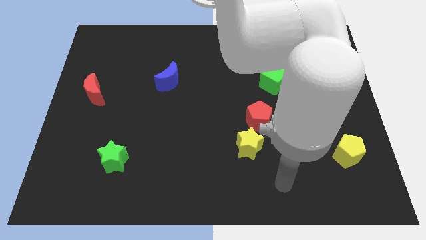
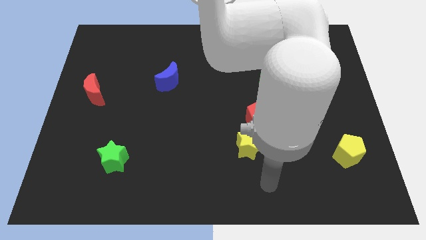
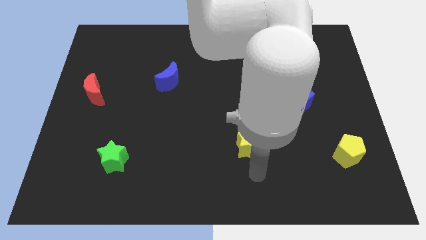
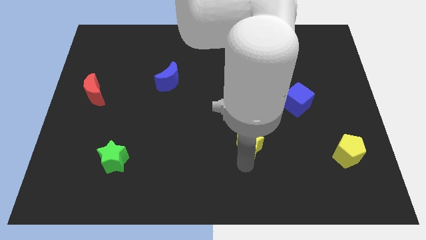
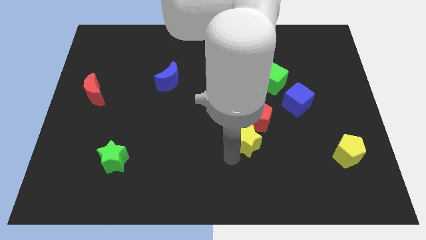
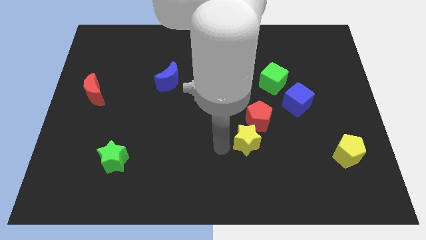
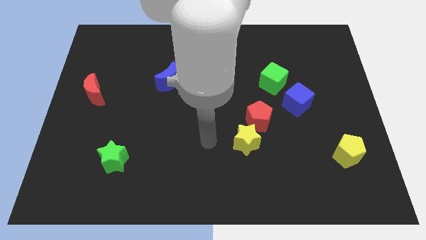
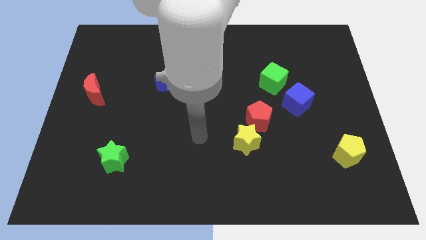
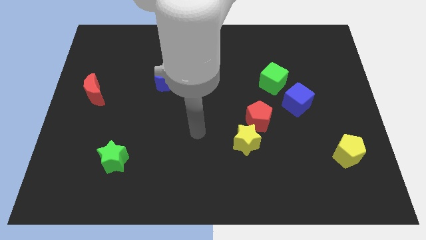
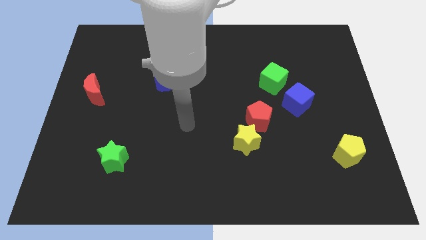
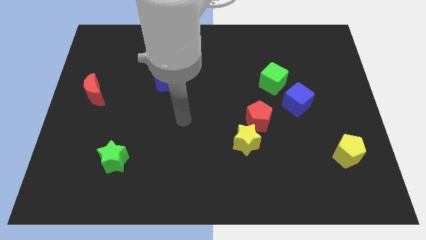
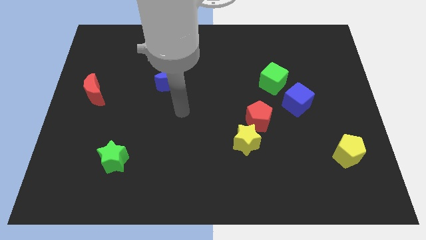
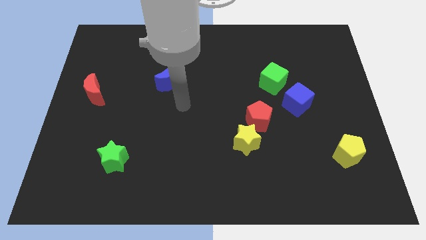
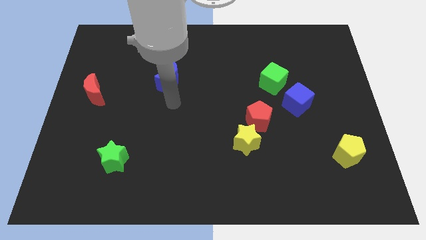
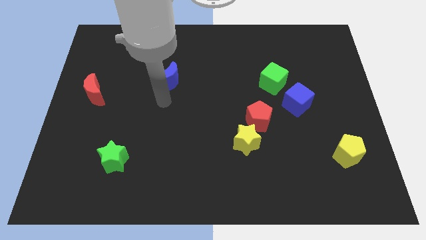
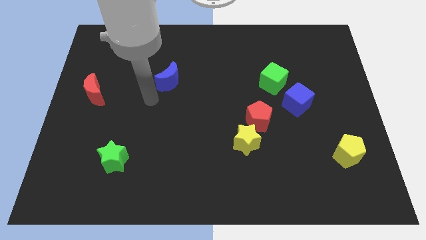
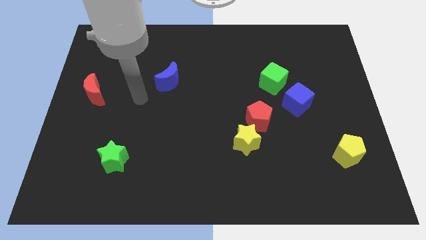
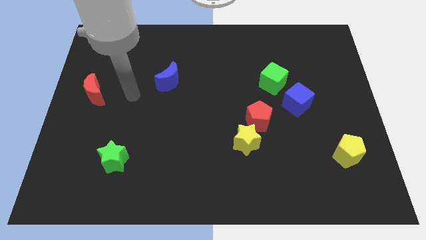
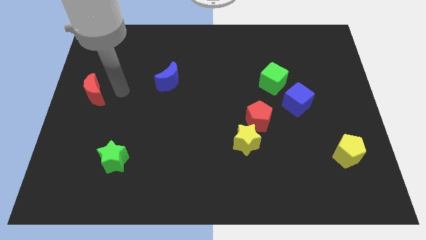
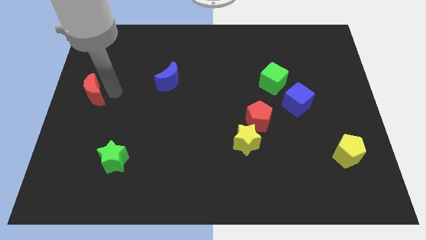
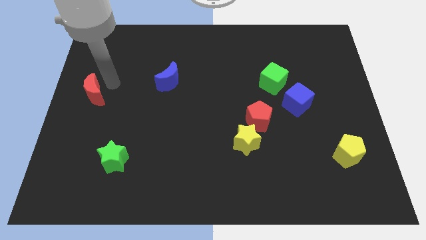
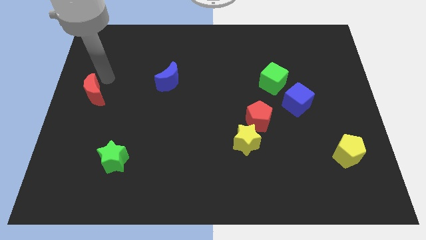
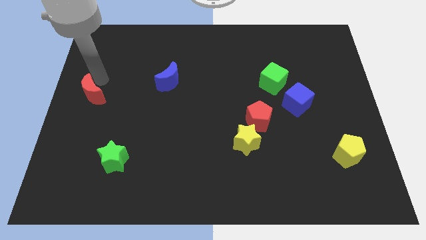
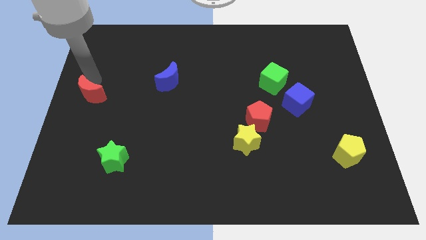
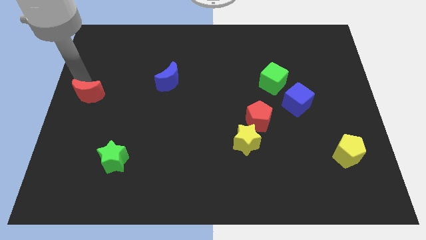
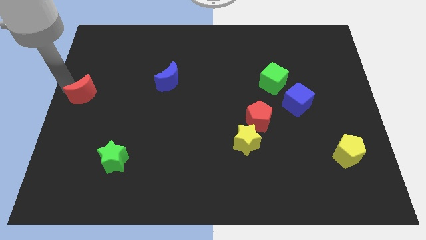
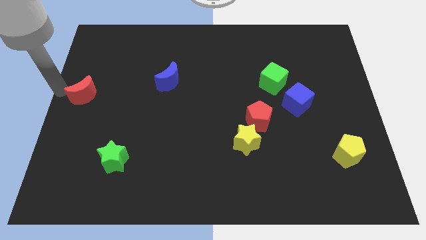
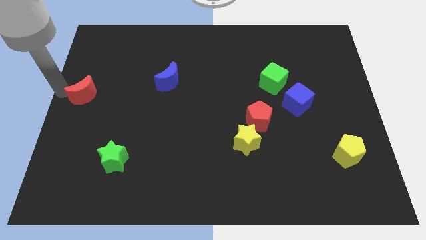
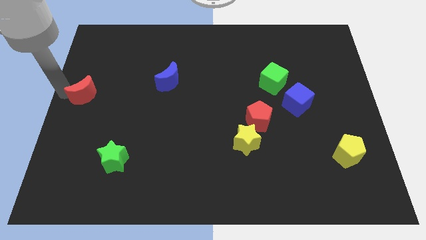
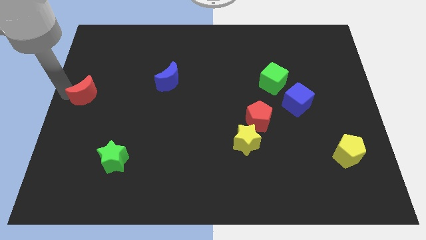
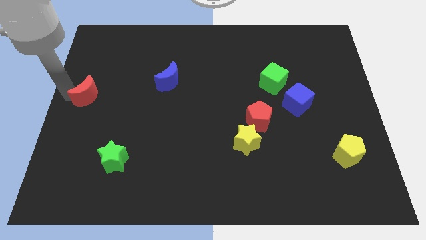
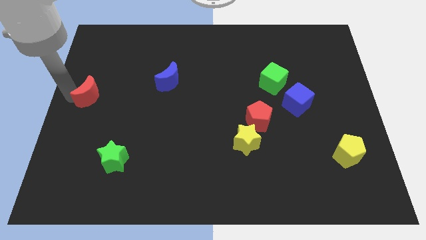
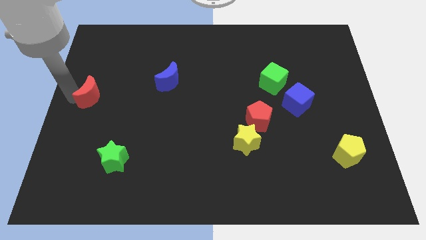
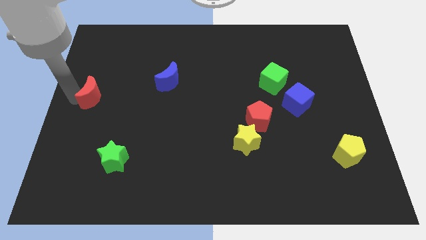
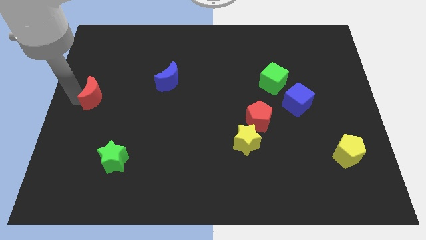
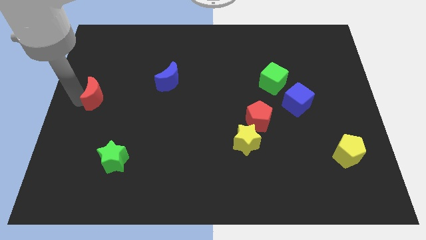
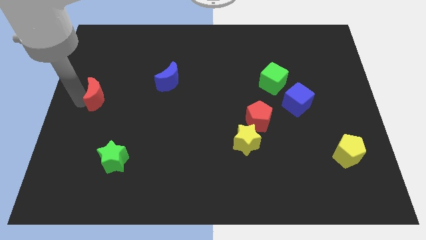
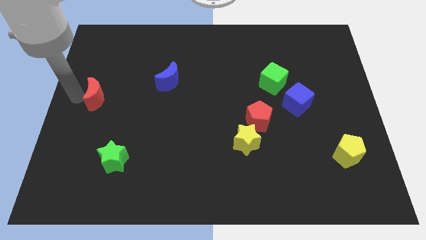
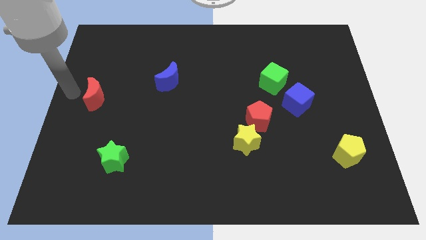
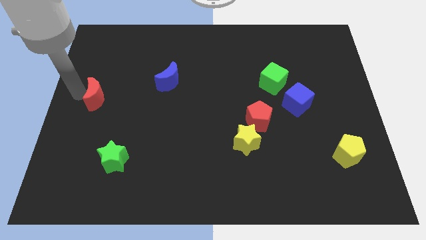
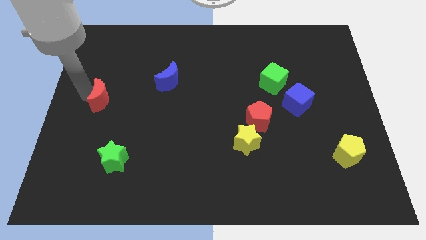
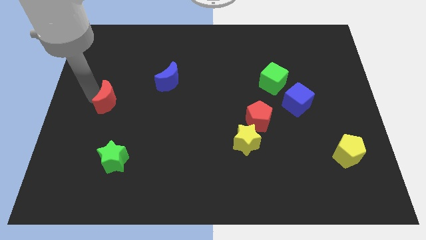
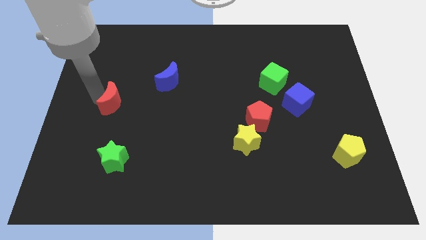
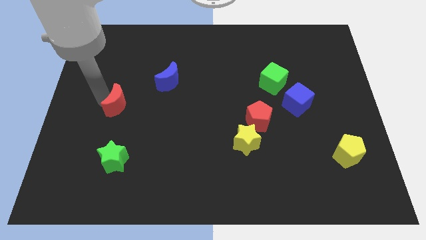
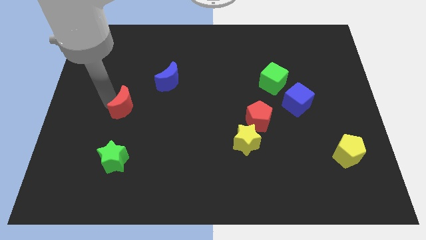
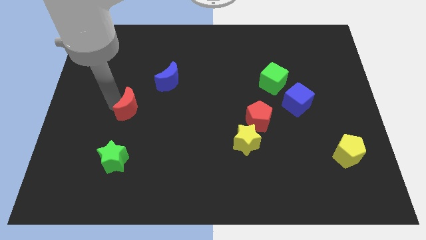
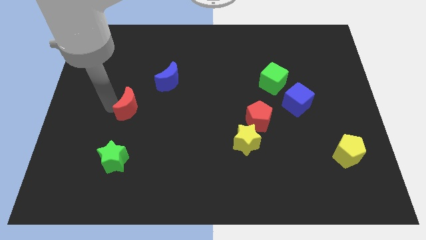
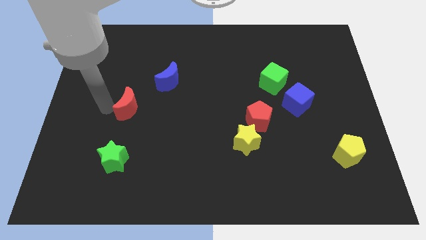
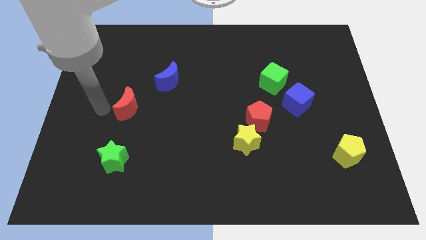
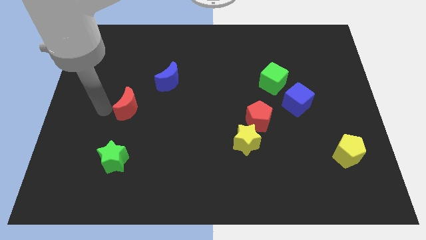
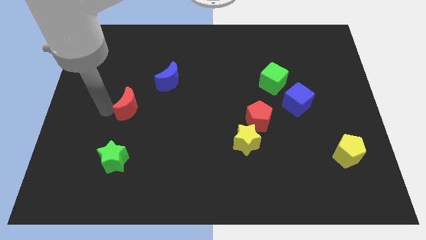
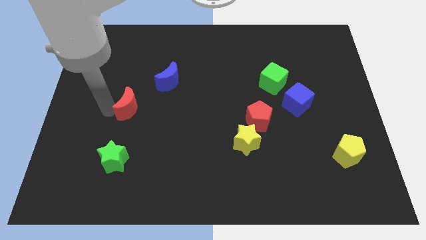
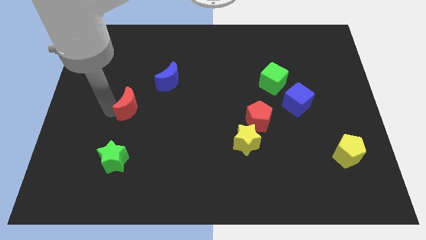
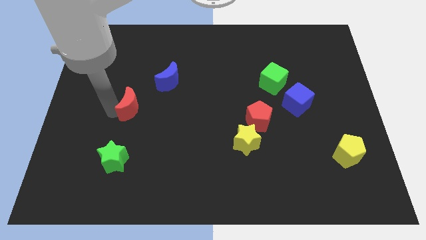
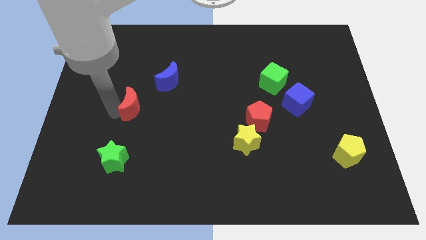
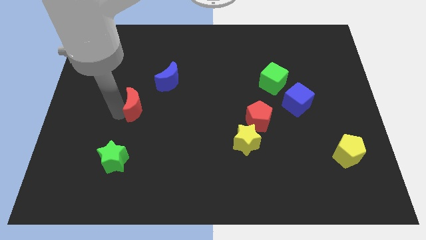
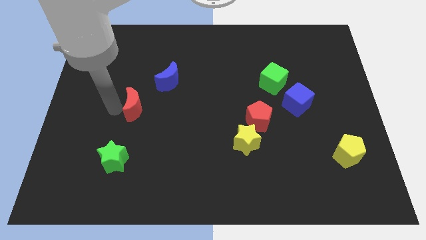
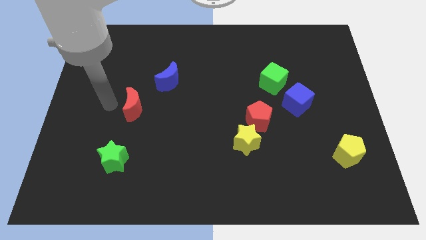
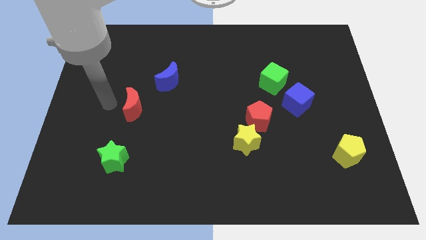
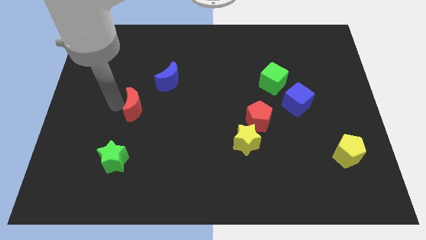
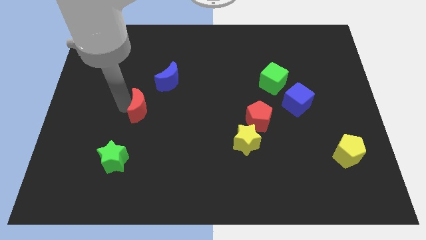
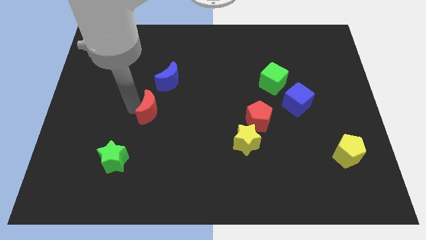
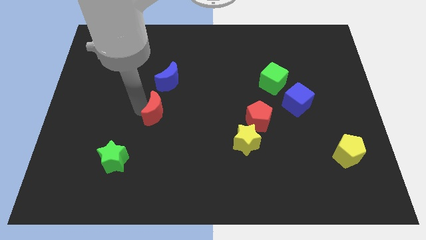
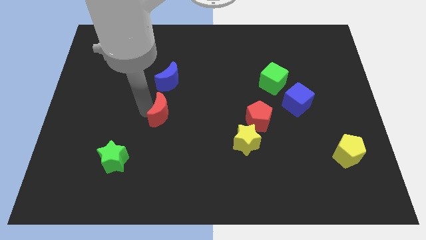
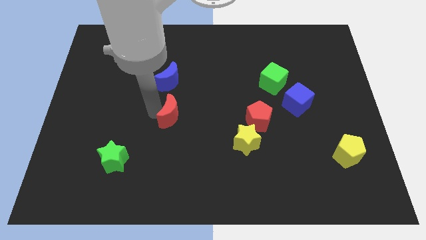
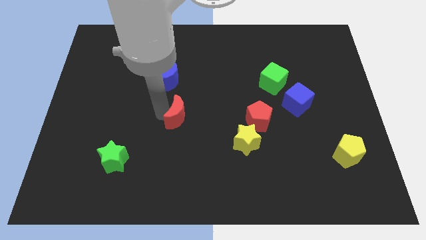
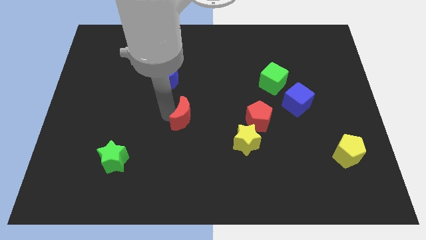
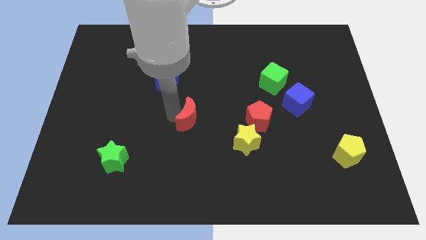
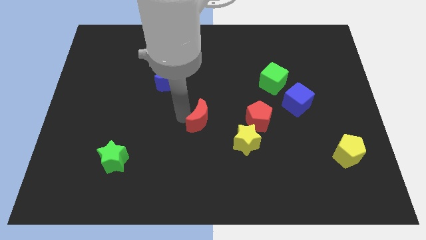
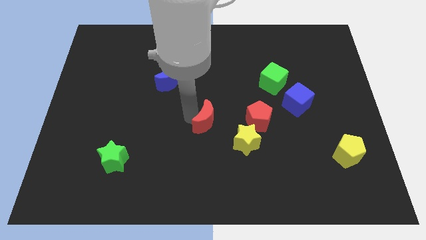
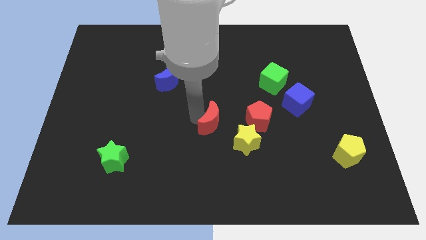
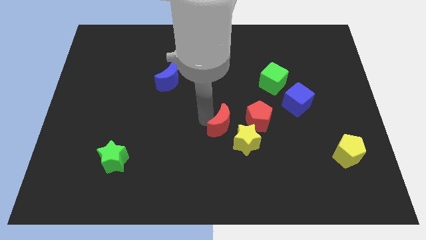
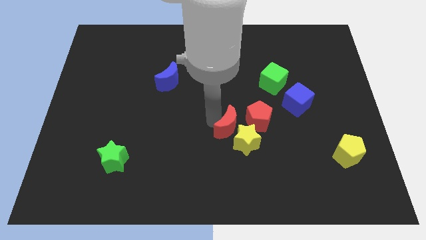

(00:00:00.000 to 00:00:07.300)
slide the red moon close to the yellow star

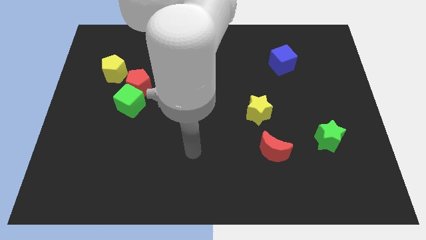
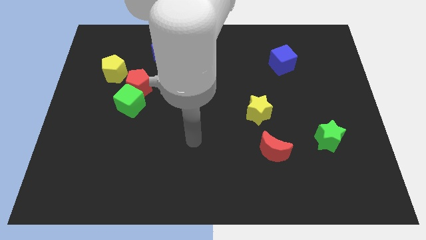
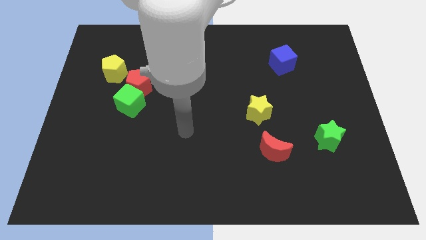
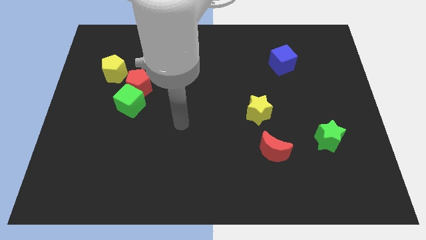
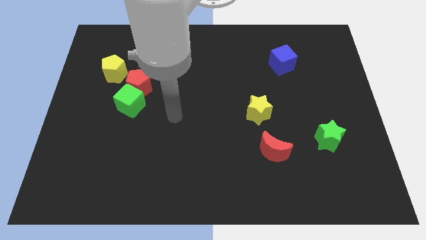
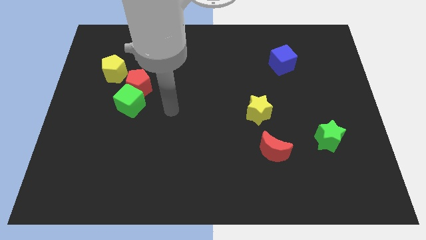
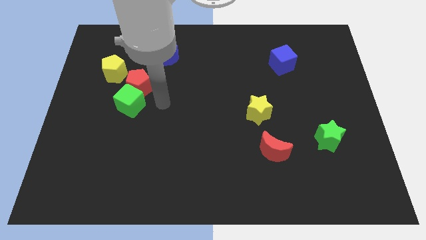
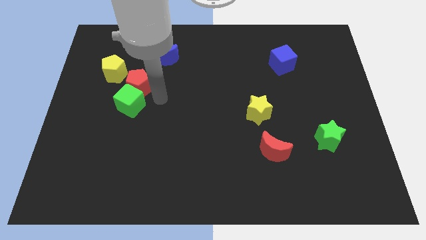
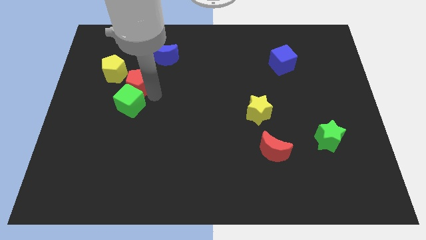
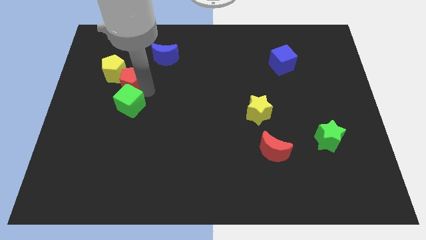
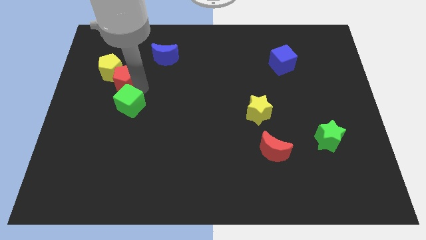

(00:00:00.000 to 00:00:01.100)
push the red pentagon to the yellow pentagon

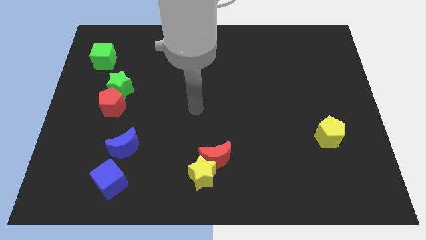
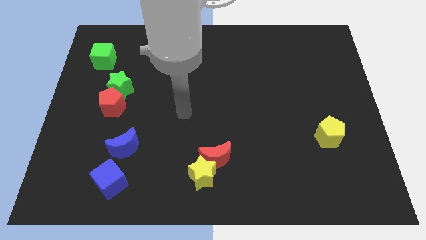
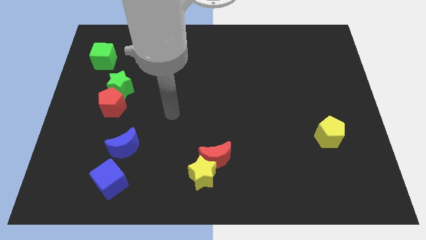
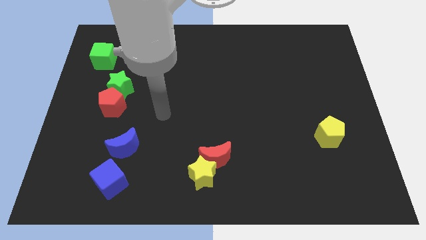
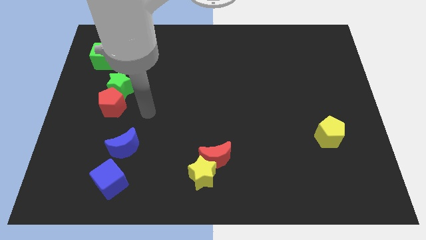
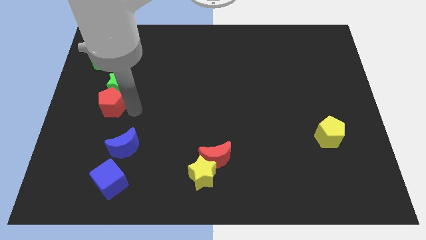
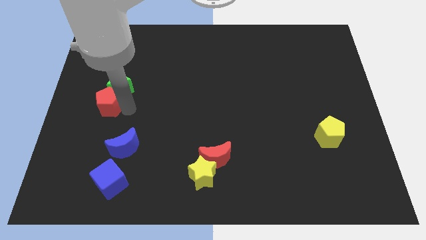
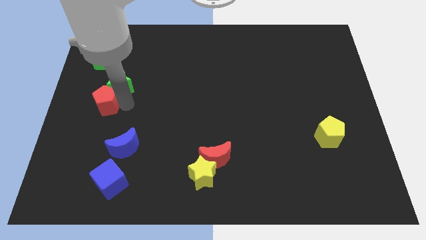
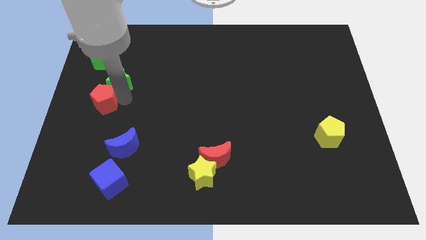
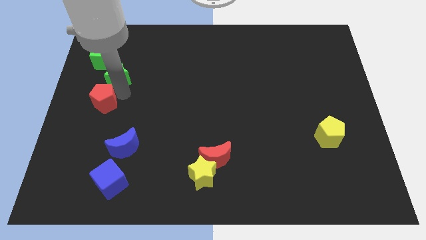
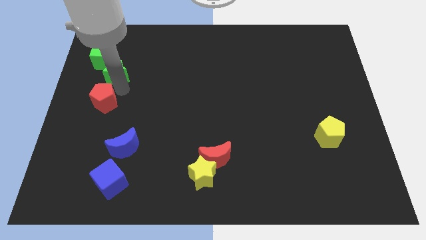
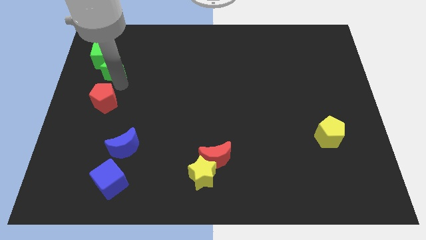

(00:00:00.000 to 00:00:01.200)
push the green star to the green cube
